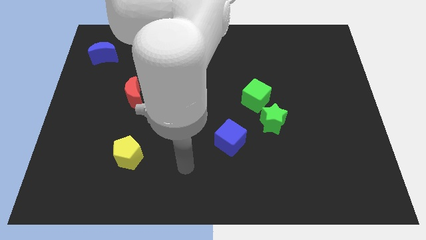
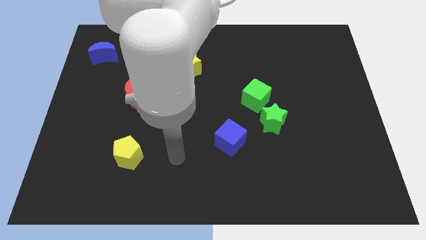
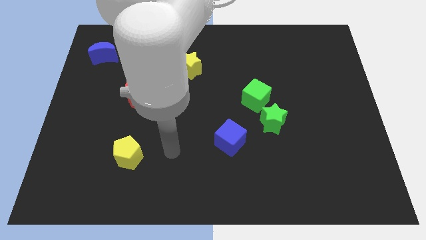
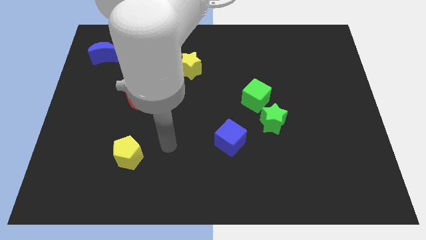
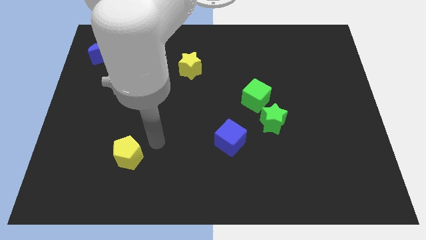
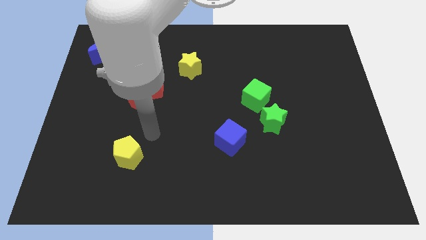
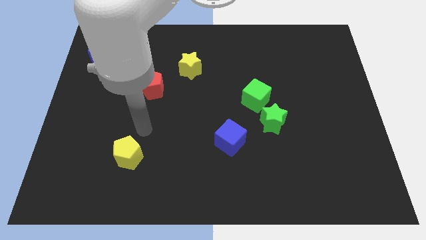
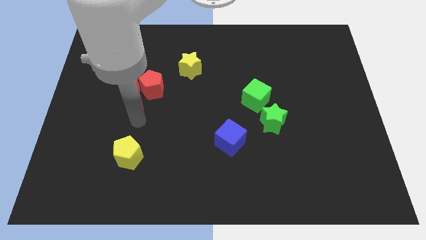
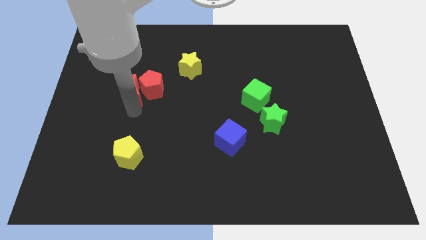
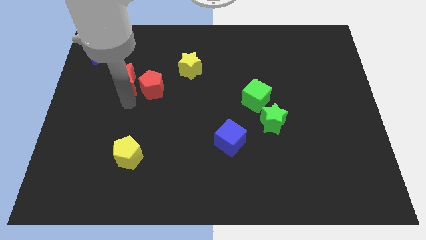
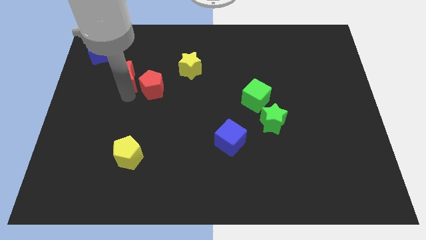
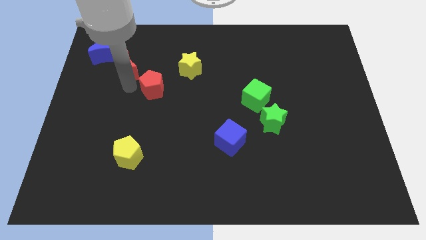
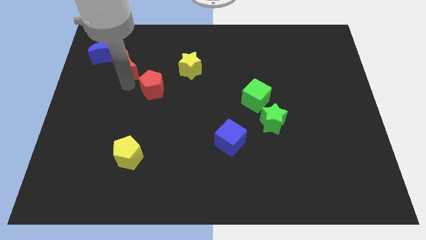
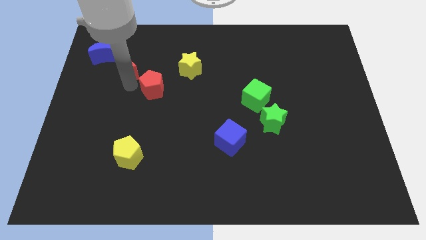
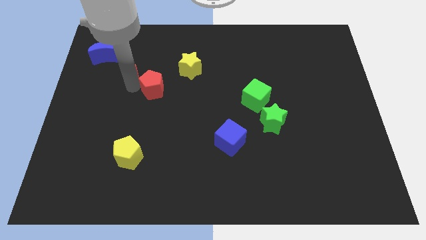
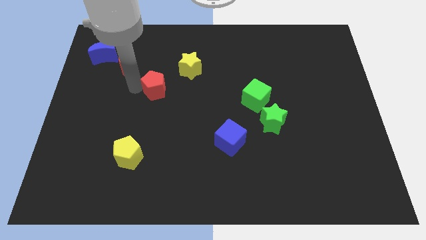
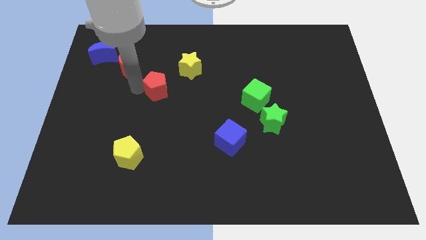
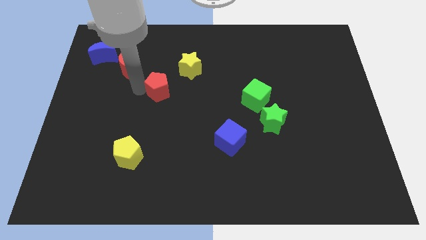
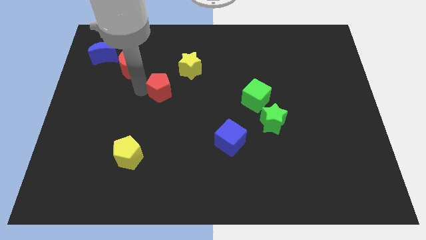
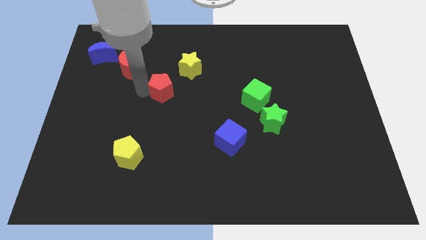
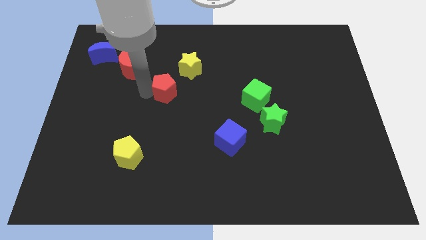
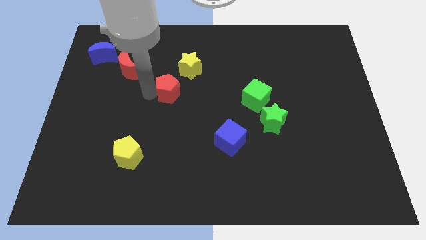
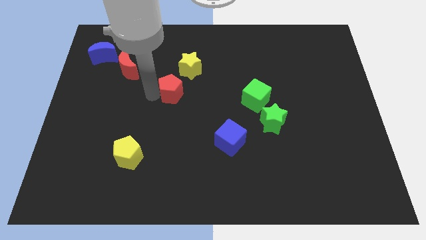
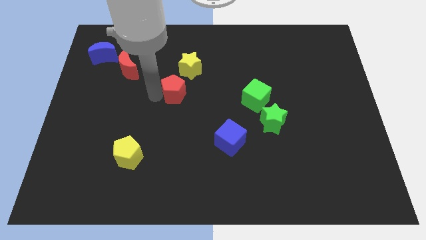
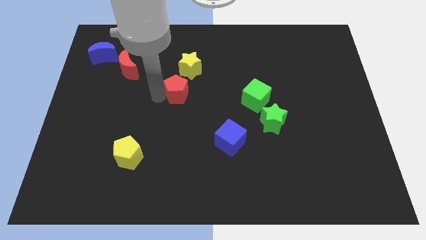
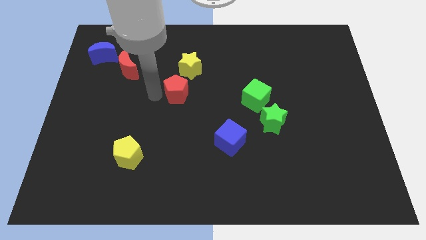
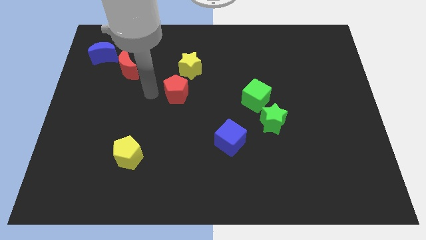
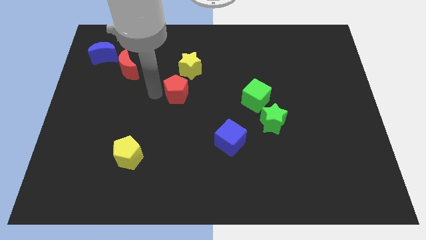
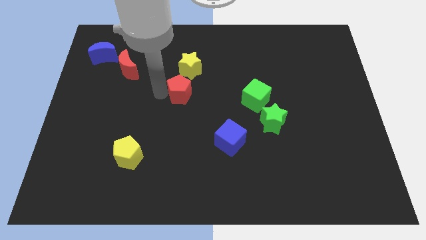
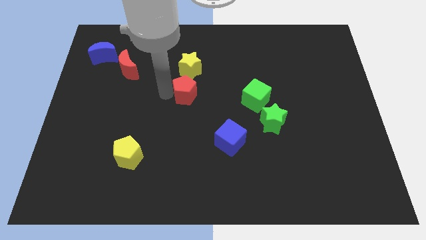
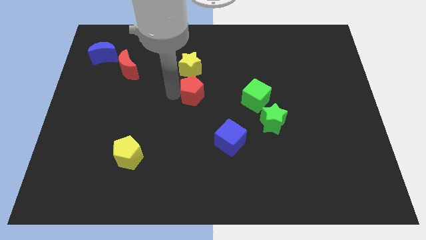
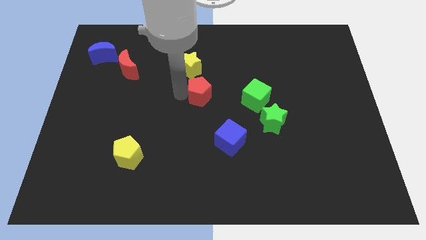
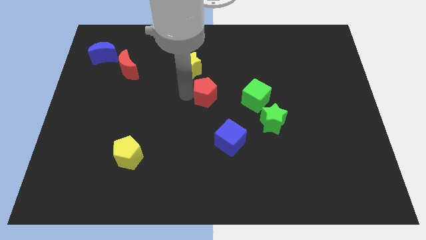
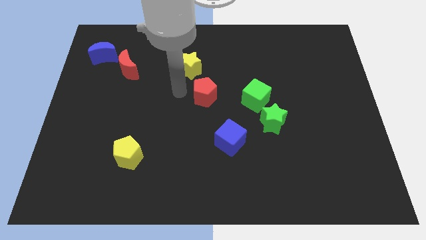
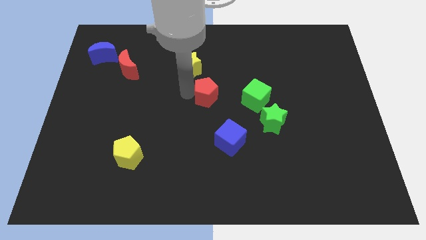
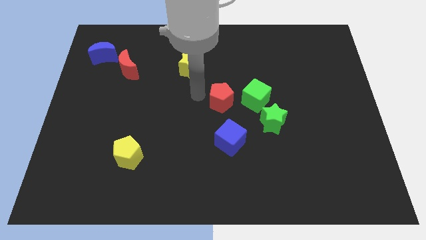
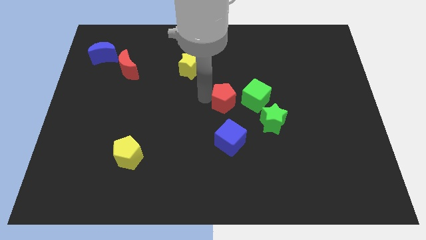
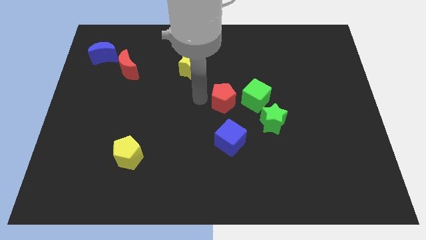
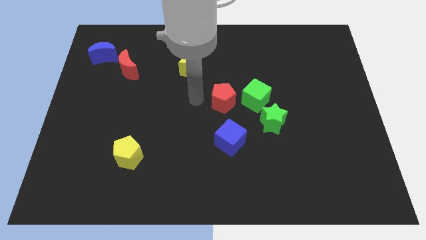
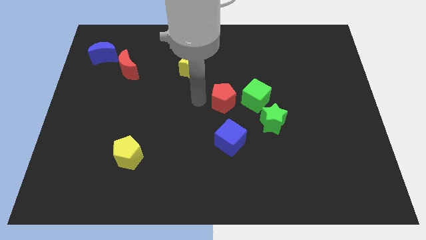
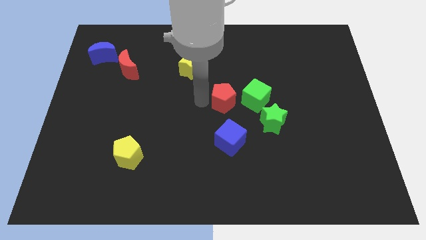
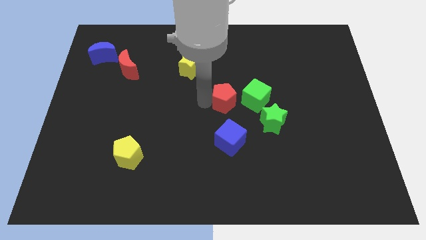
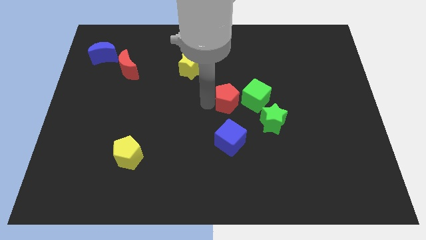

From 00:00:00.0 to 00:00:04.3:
push the red pentagon to the top left side of the green star

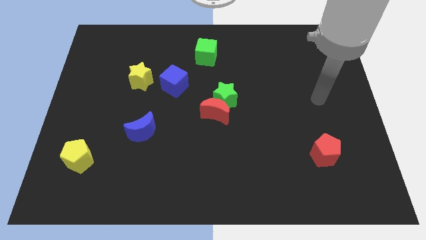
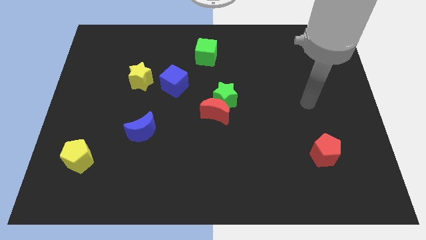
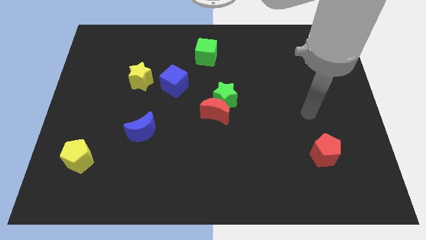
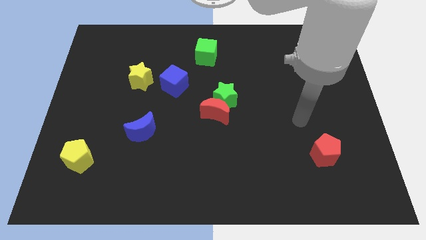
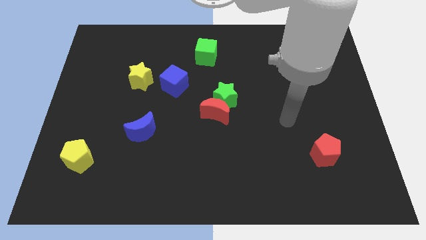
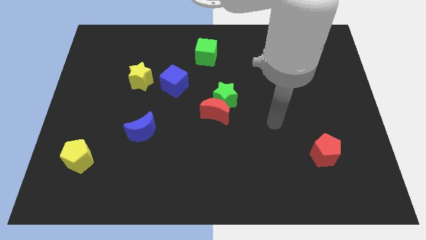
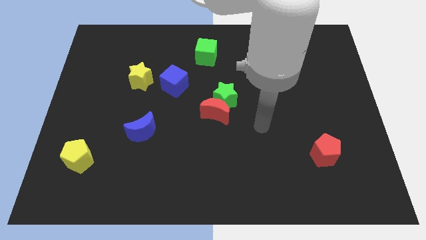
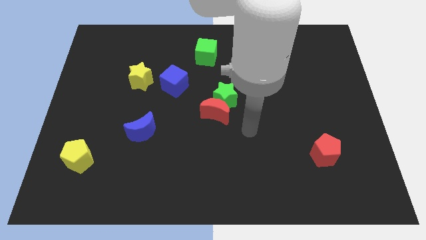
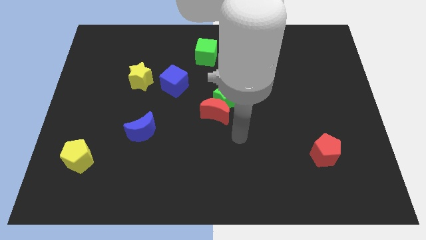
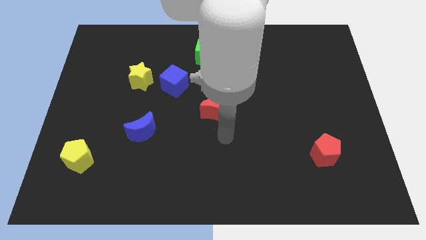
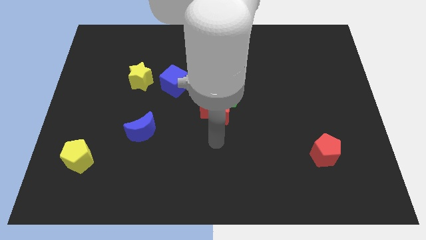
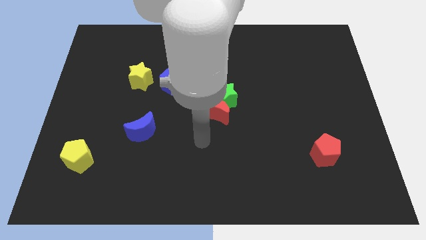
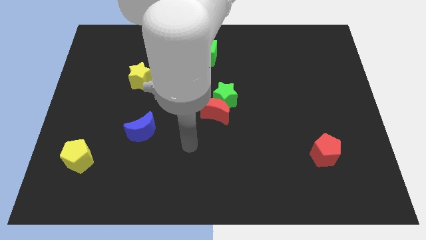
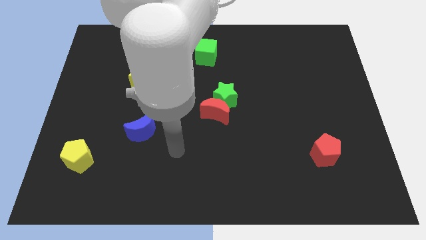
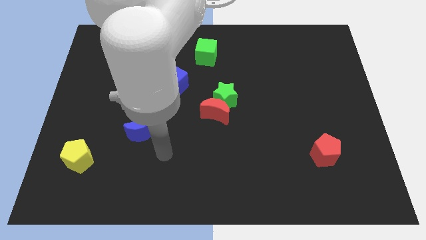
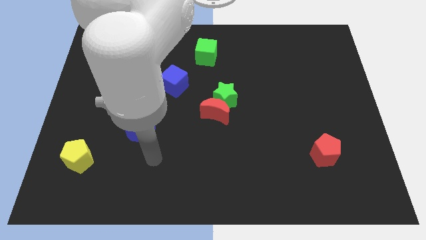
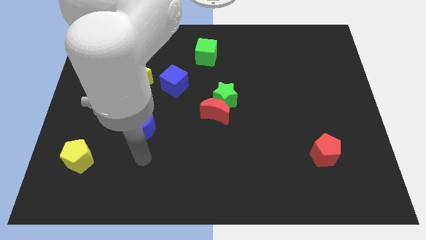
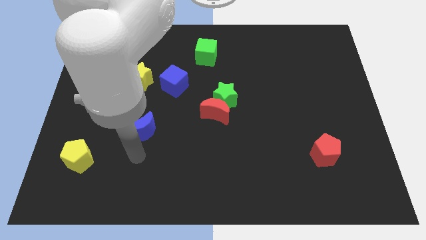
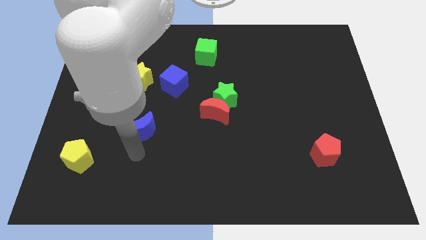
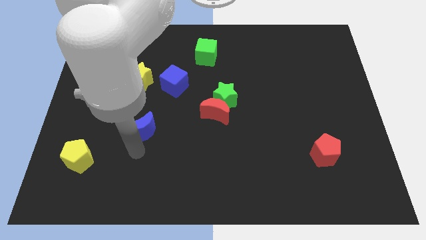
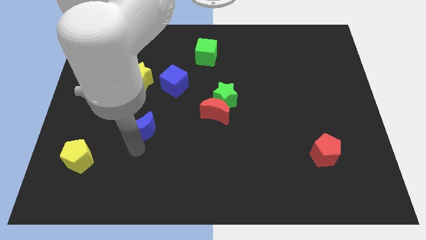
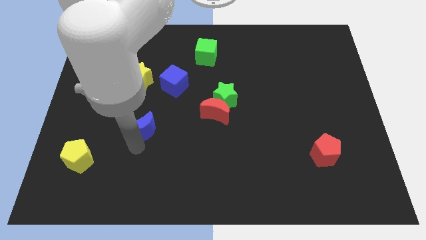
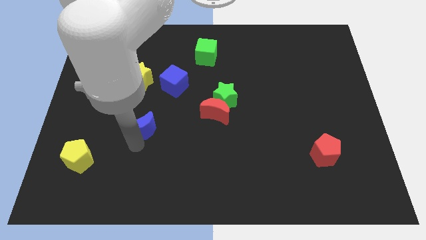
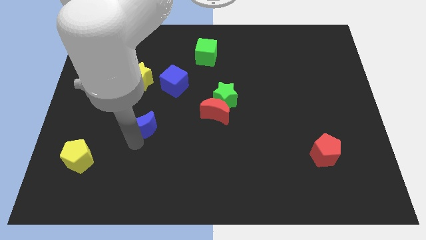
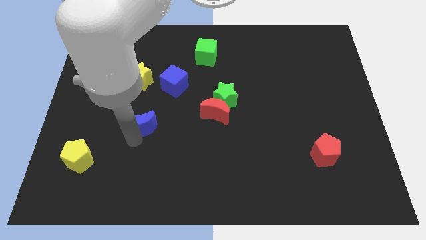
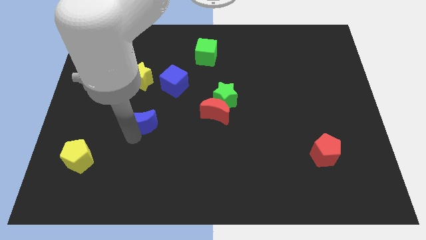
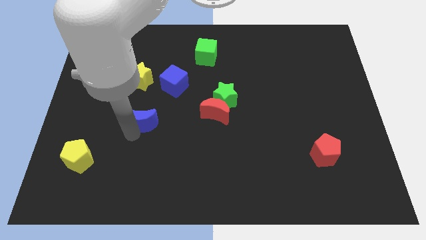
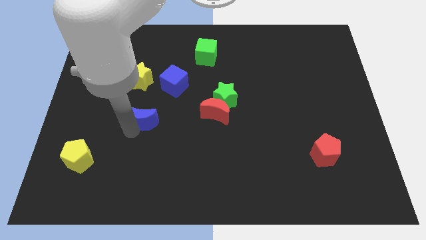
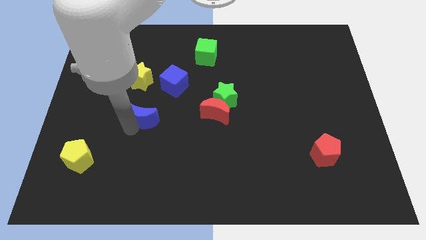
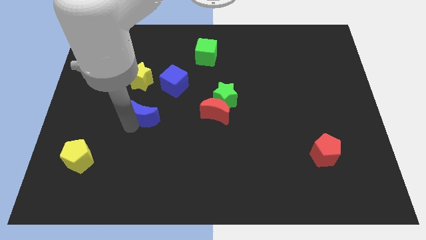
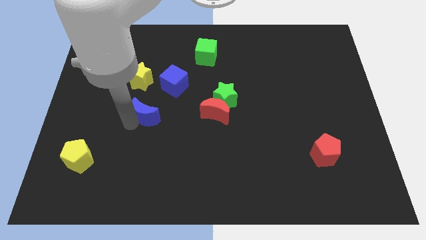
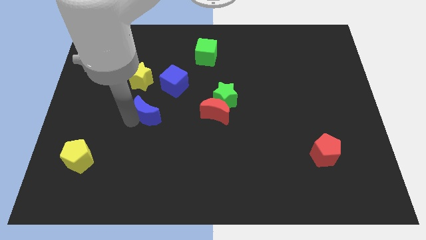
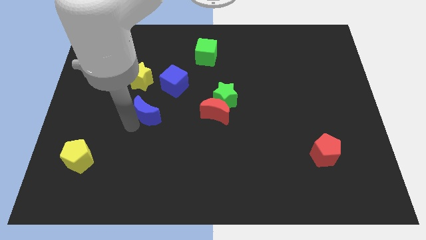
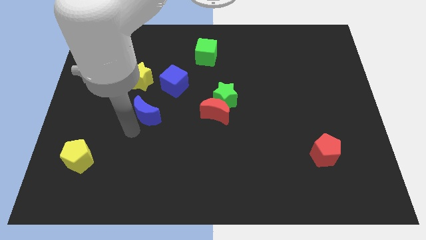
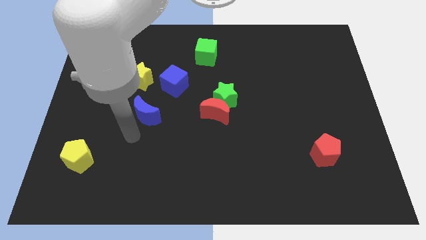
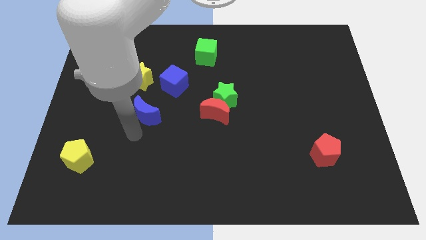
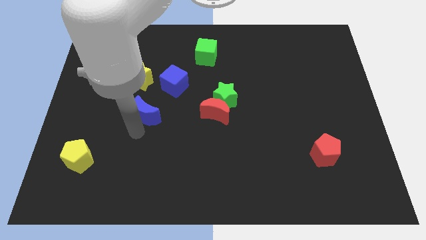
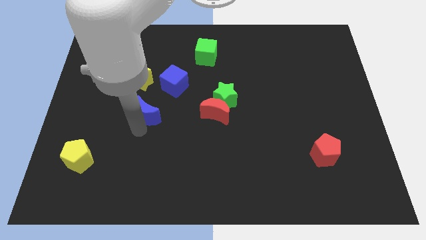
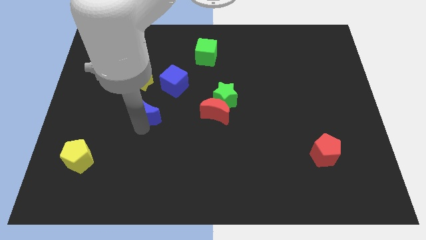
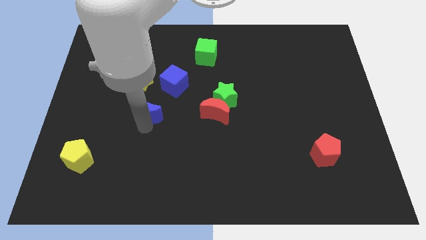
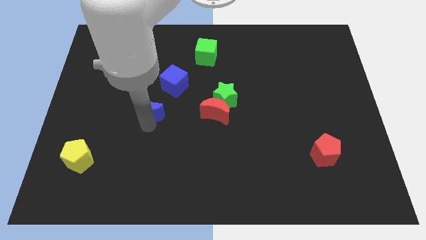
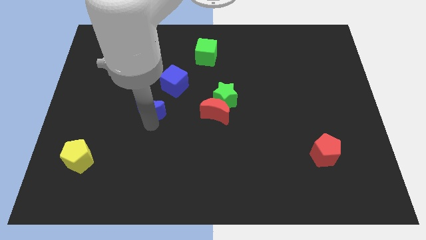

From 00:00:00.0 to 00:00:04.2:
put the blue moon diagonally down and to the right of the yellow star
